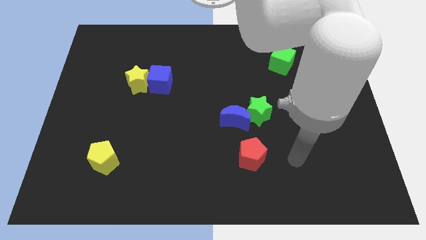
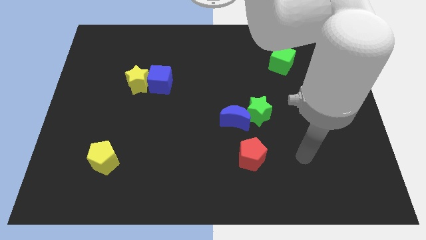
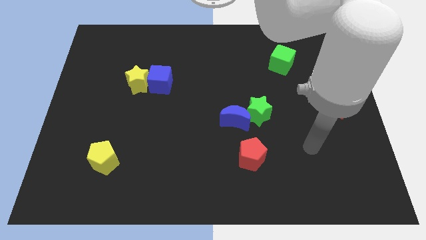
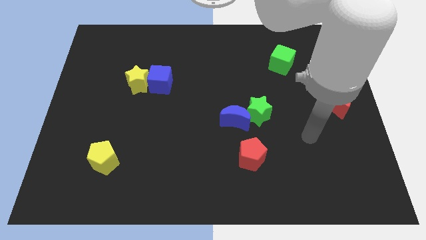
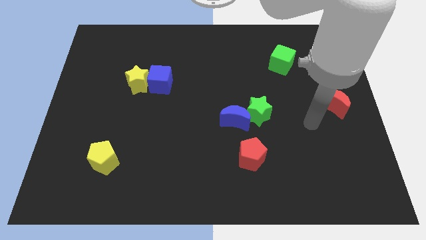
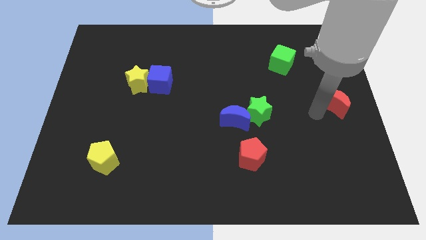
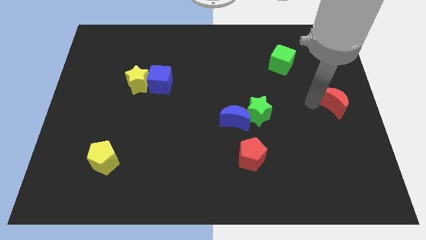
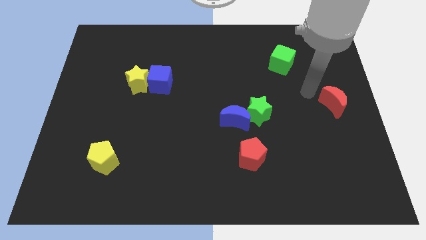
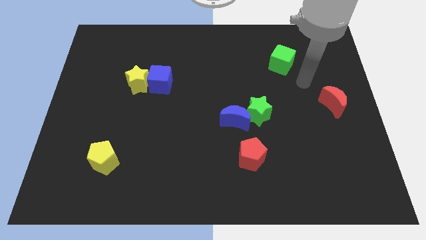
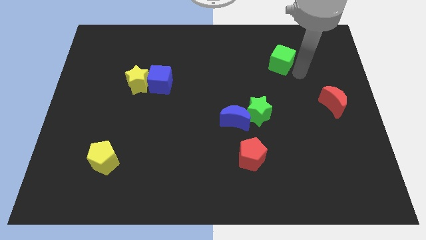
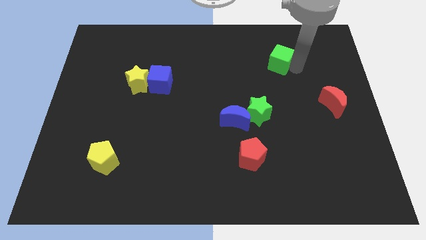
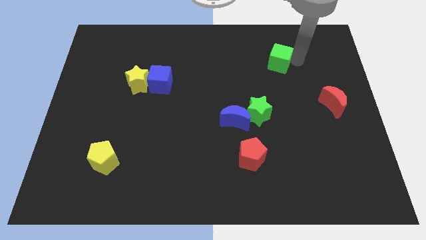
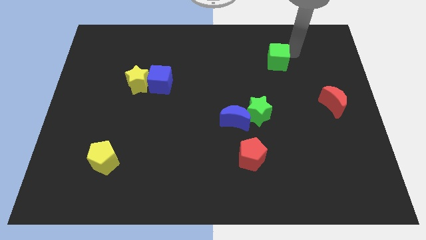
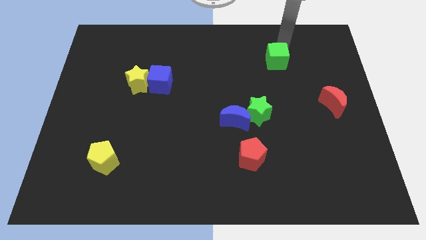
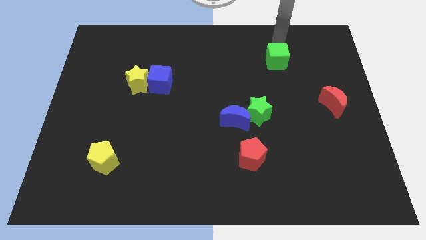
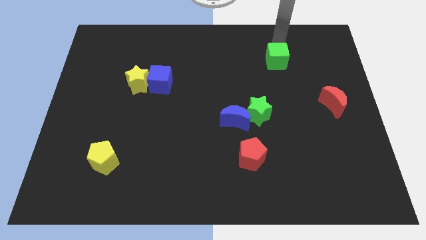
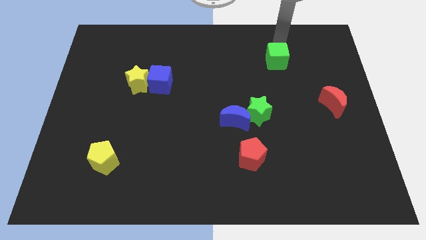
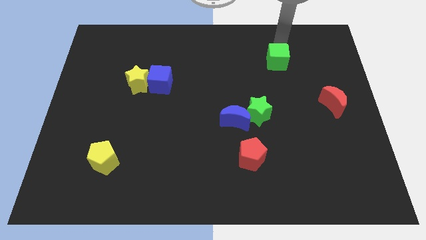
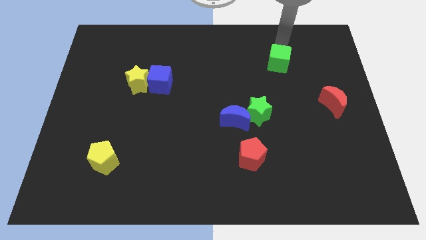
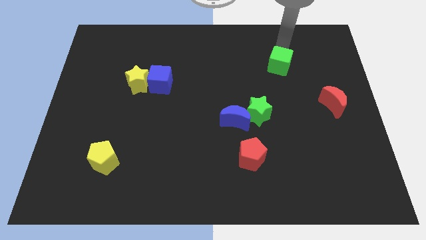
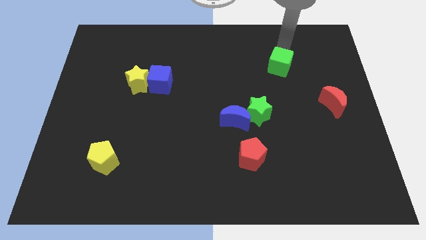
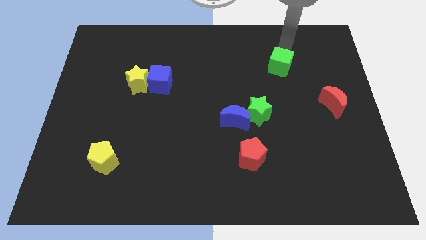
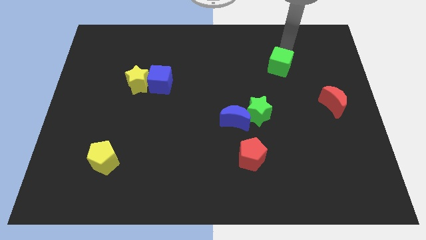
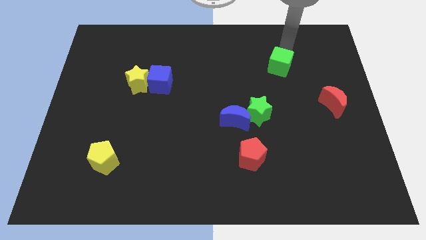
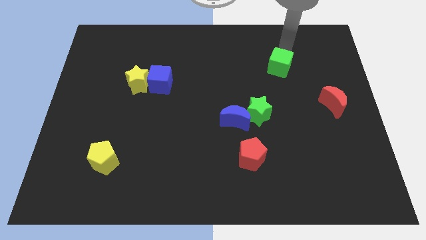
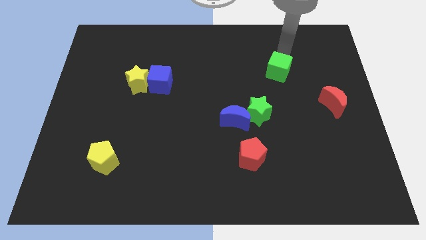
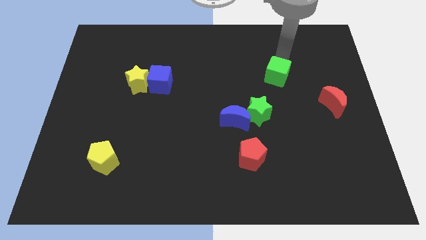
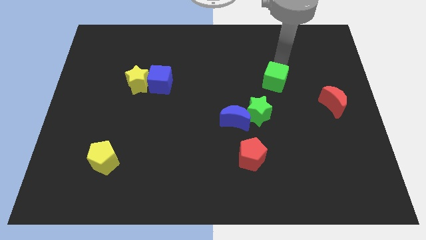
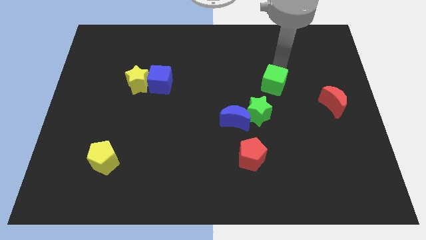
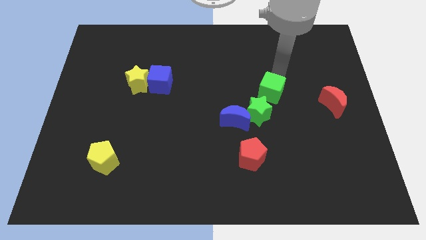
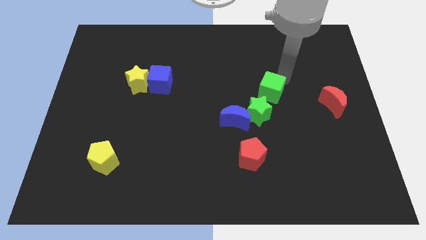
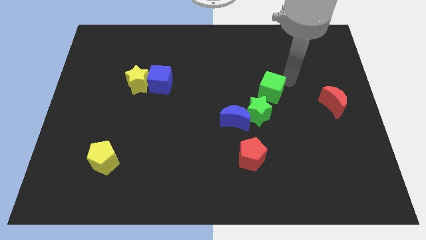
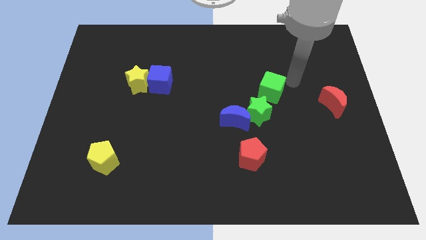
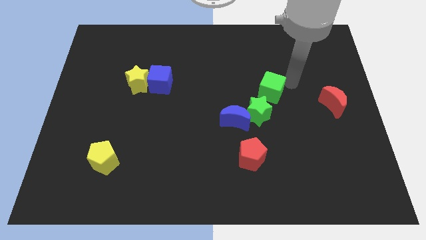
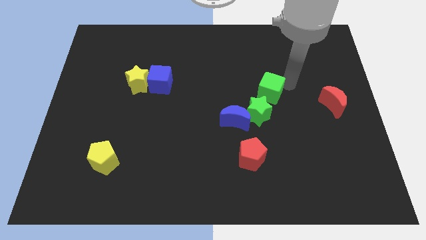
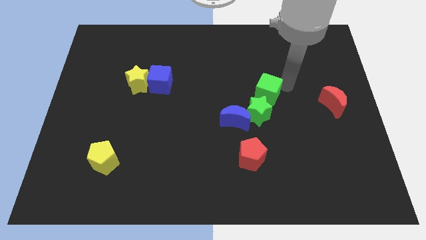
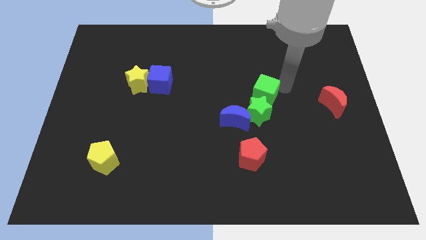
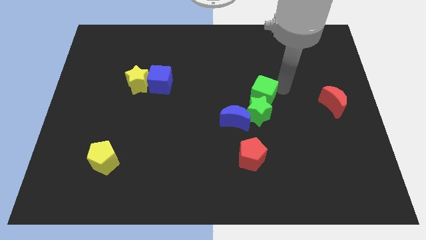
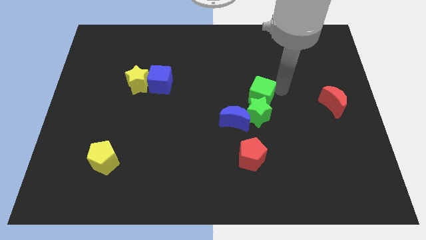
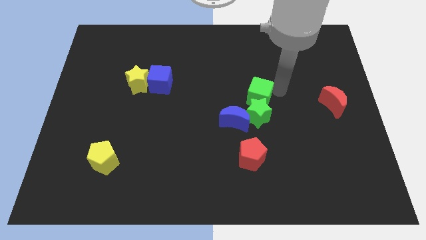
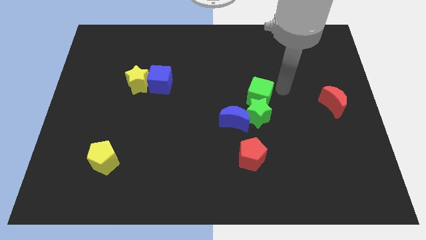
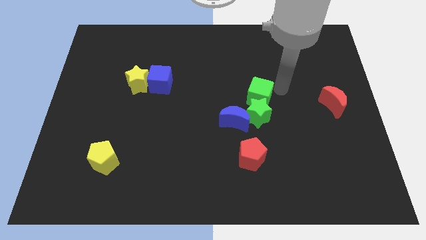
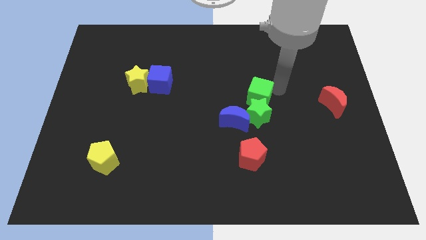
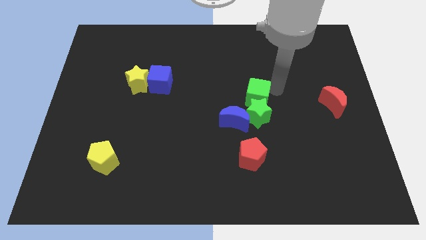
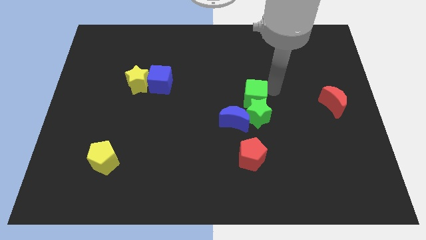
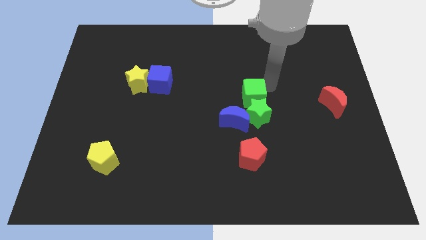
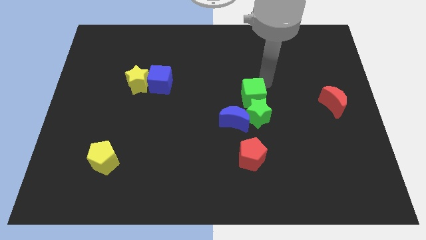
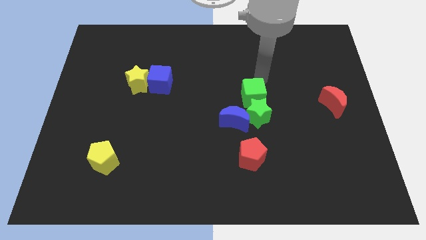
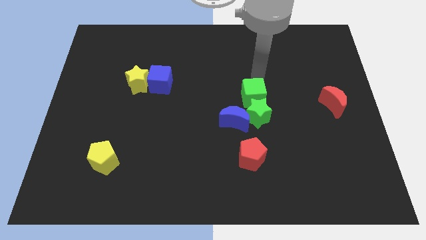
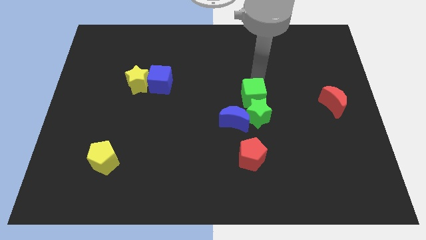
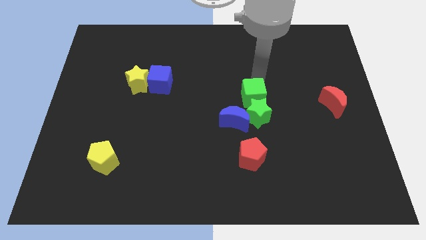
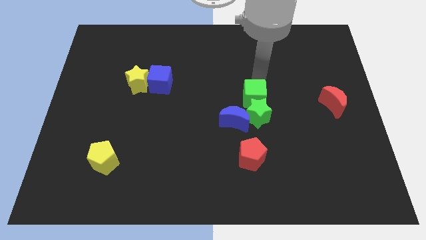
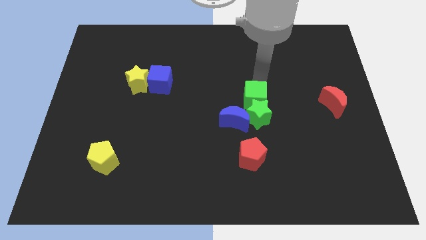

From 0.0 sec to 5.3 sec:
slide the green cube to the top side of the red pentagon

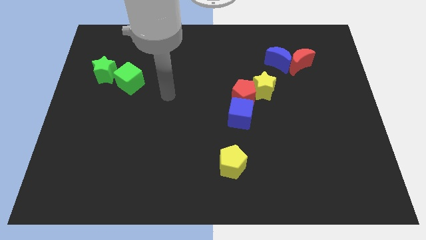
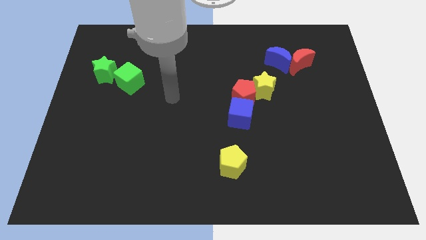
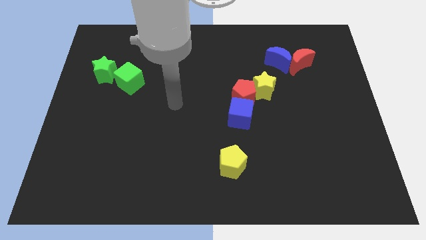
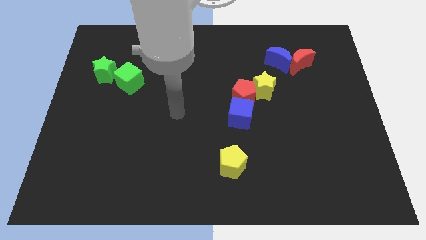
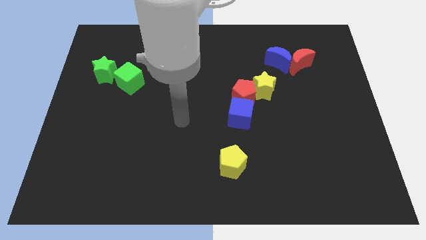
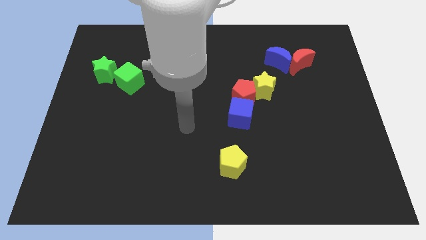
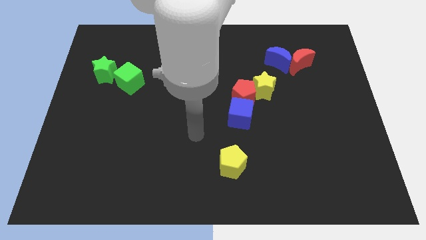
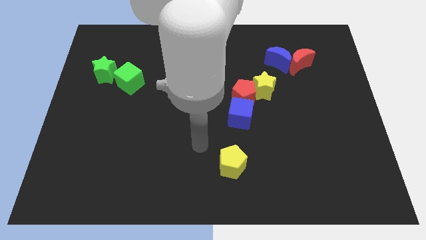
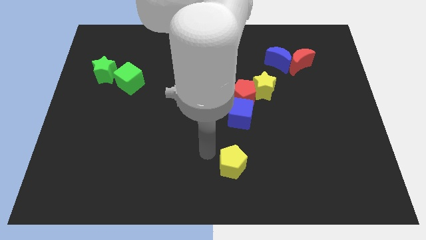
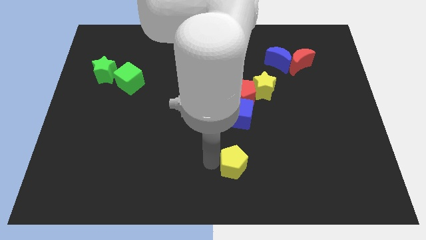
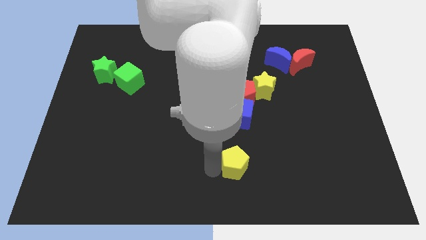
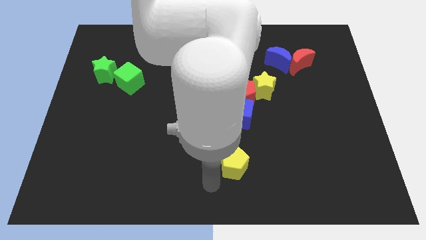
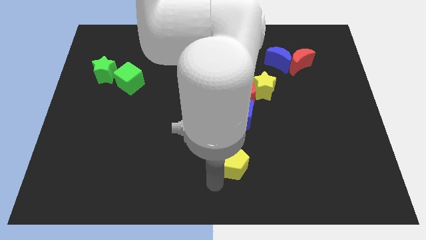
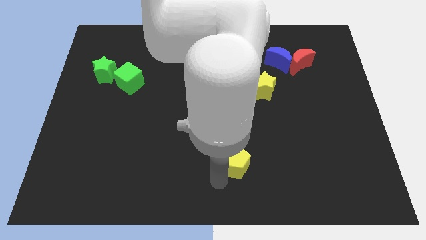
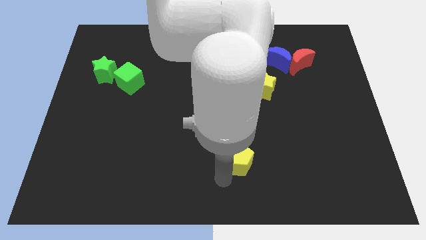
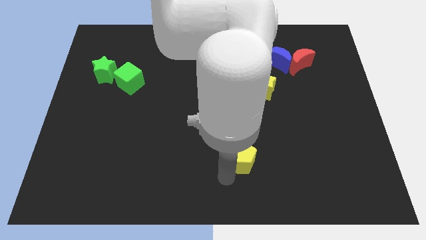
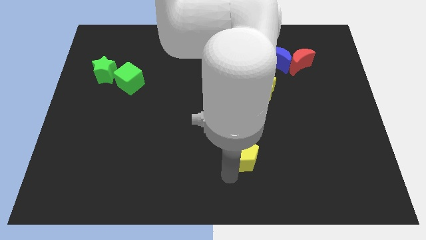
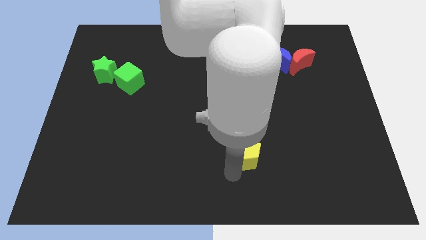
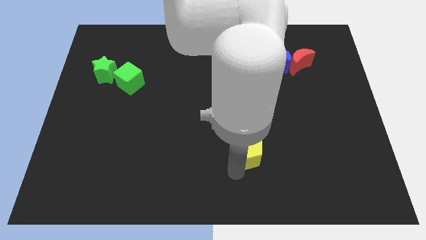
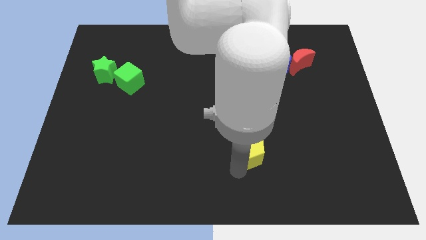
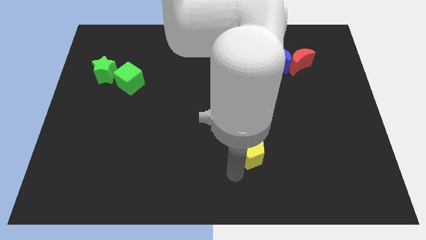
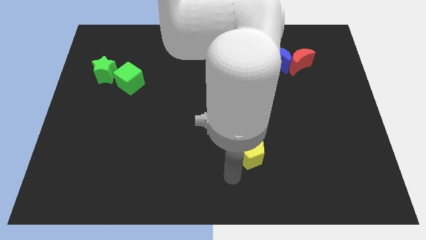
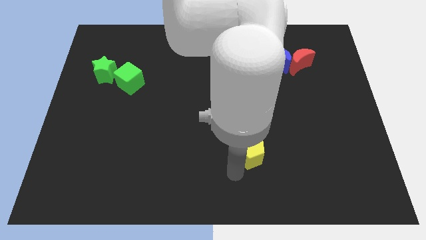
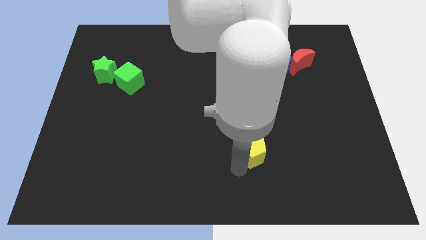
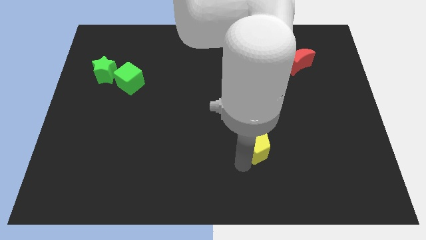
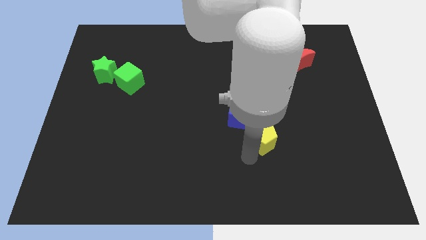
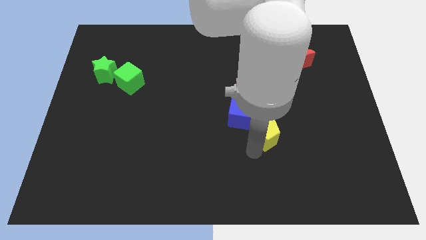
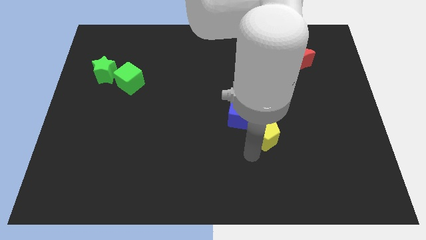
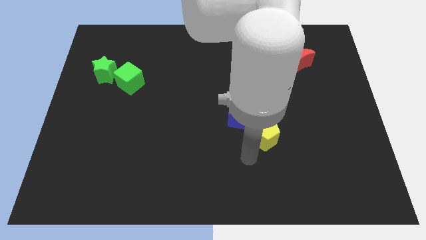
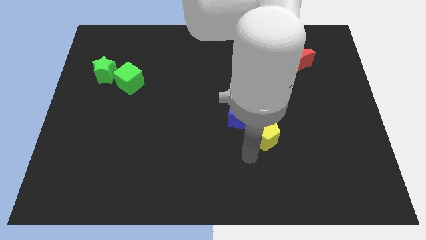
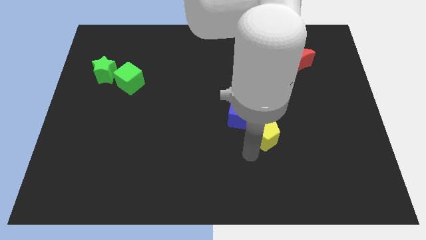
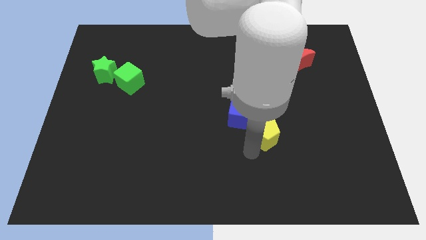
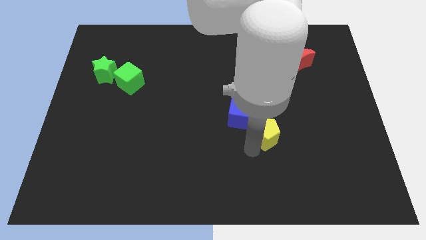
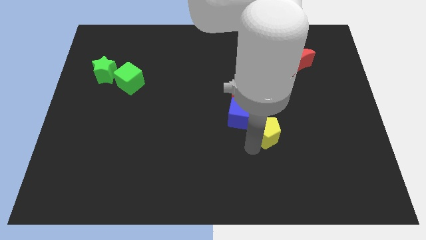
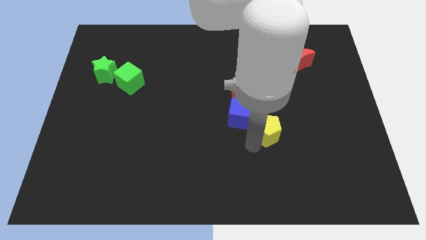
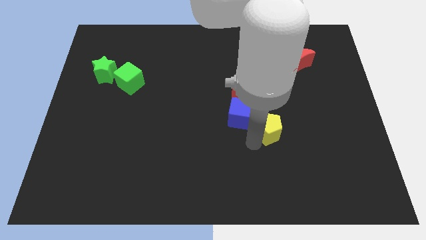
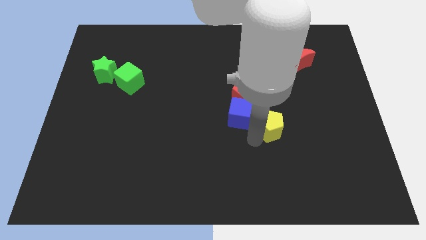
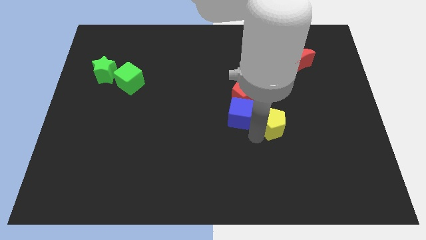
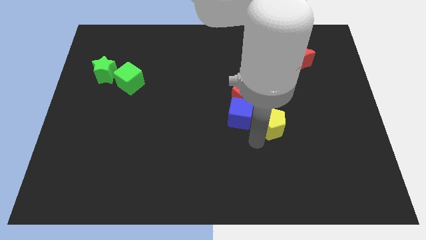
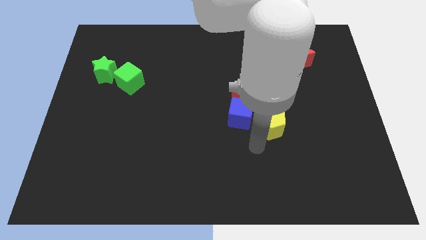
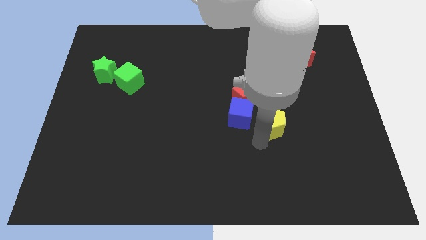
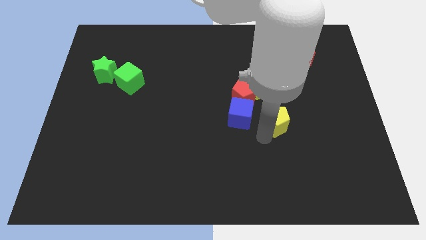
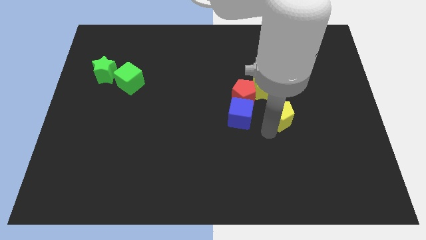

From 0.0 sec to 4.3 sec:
push the yellow pentagon to the bottom right of the yellow star
